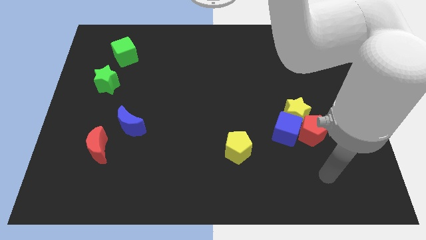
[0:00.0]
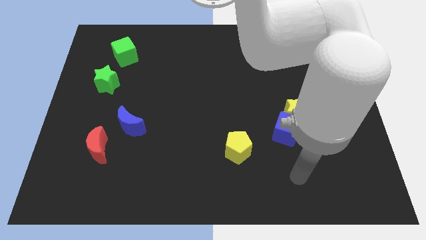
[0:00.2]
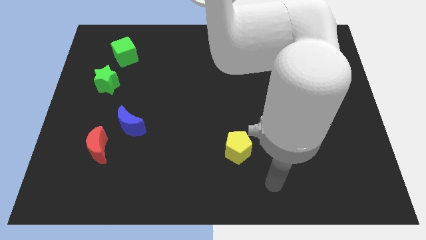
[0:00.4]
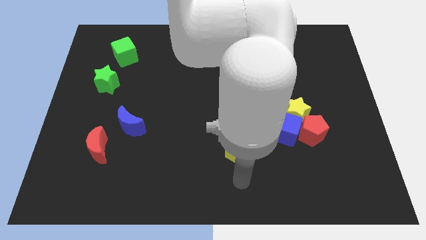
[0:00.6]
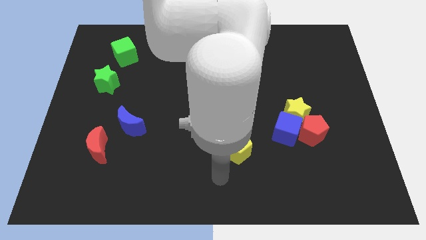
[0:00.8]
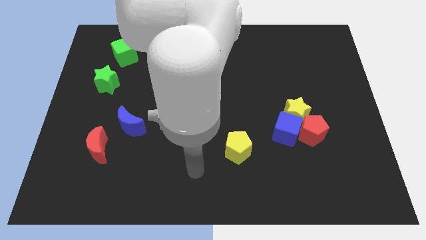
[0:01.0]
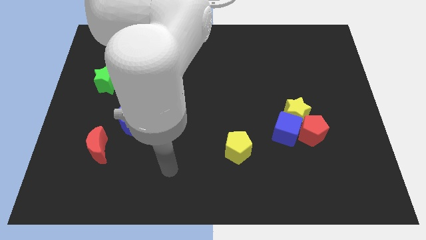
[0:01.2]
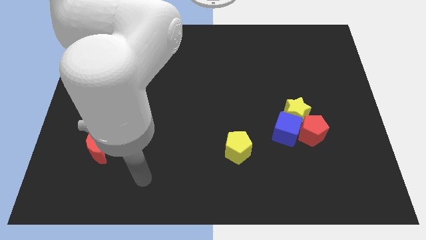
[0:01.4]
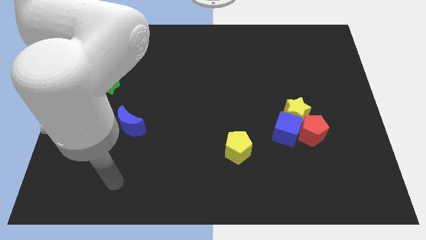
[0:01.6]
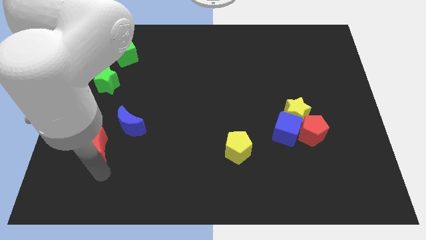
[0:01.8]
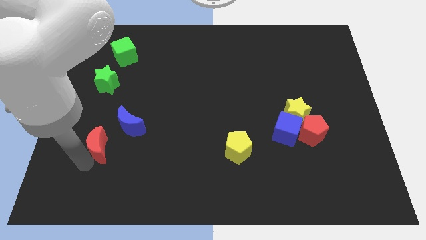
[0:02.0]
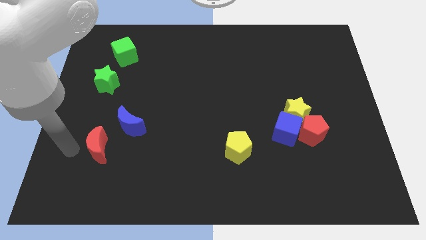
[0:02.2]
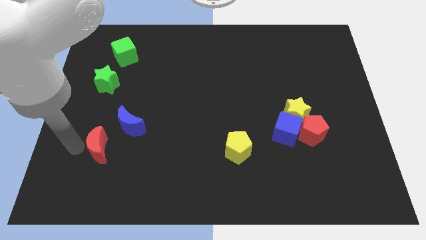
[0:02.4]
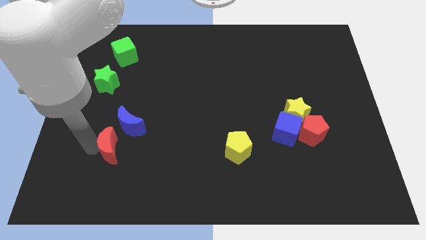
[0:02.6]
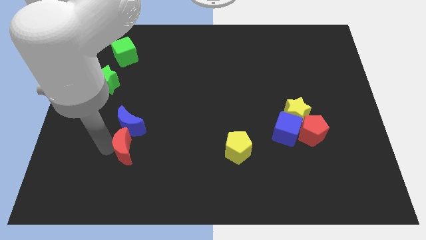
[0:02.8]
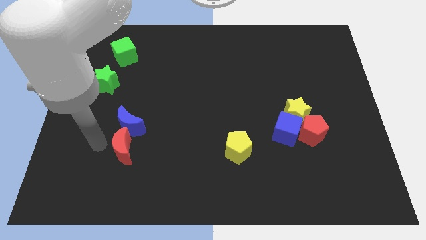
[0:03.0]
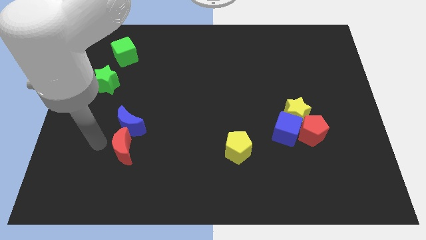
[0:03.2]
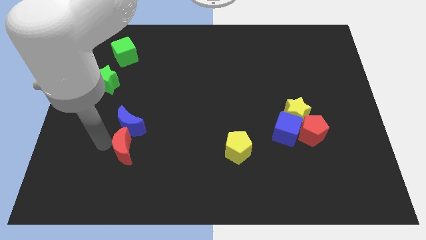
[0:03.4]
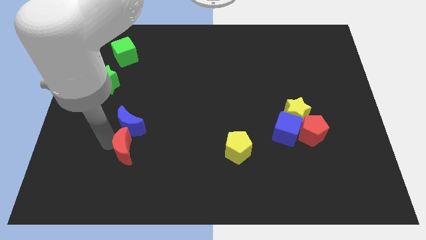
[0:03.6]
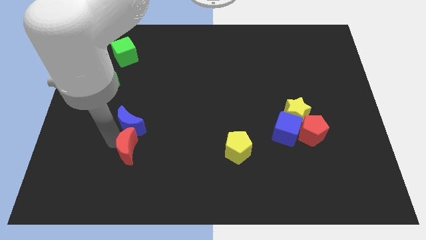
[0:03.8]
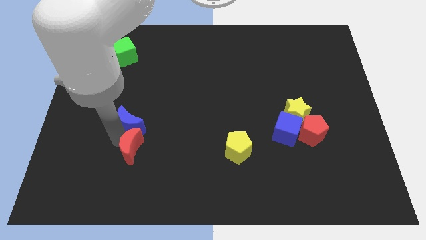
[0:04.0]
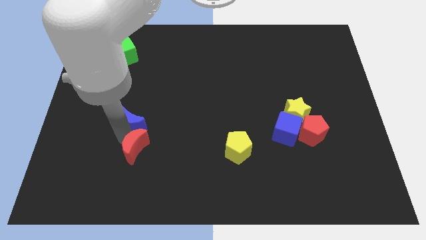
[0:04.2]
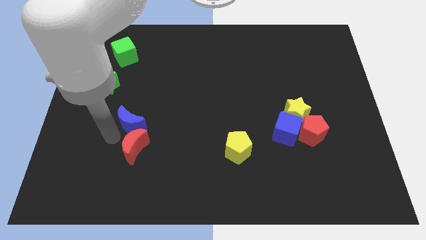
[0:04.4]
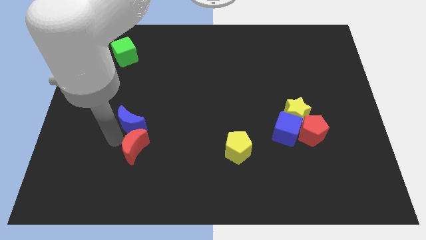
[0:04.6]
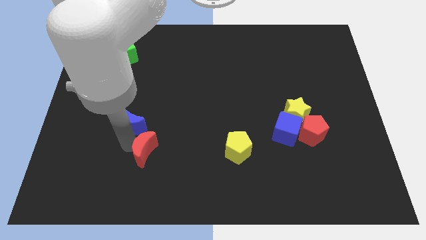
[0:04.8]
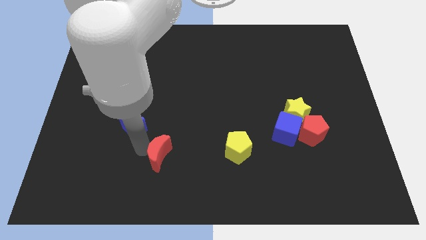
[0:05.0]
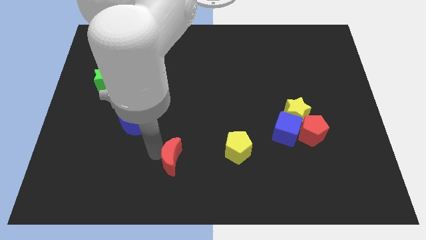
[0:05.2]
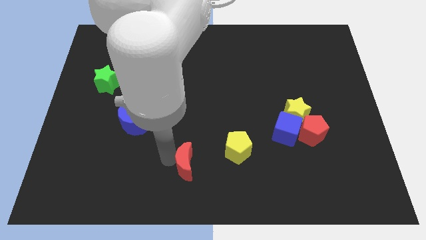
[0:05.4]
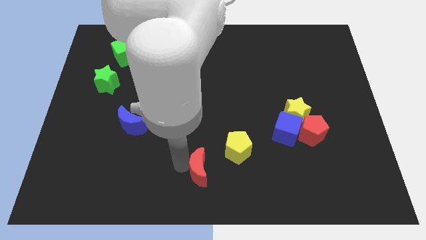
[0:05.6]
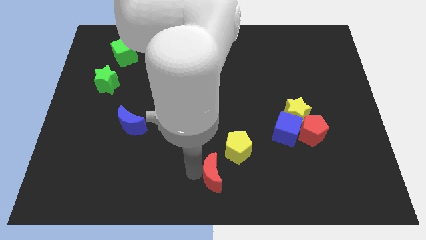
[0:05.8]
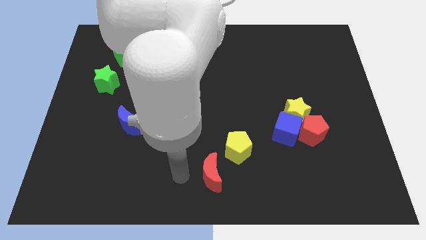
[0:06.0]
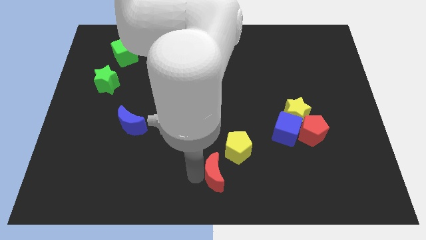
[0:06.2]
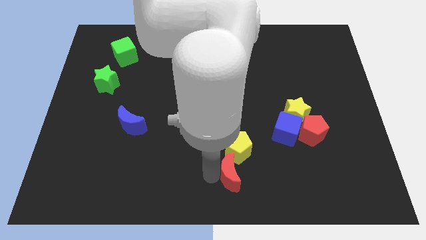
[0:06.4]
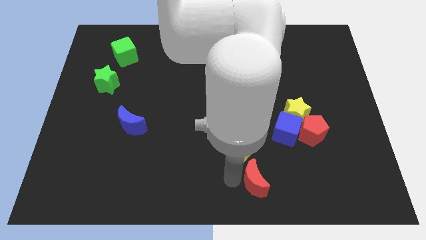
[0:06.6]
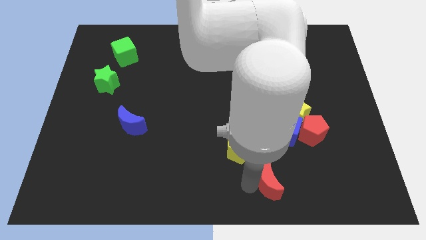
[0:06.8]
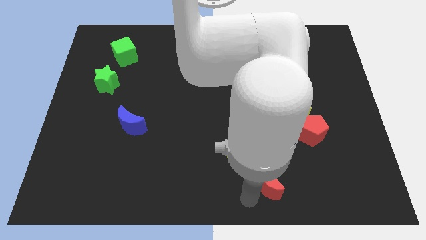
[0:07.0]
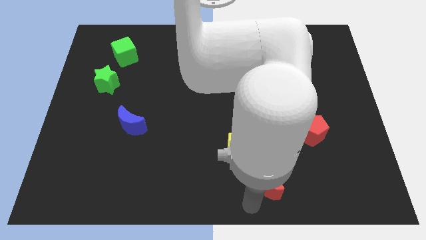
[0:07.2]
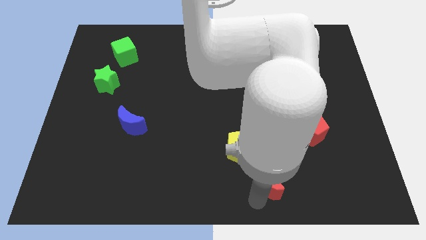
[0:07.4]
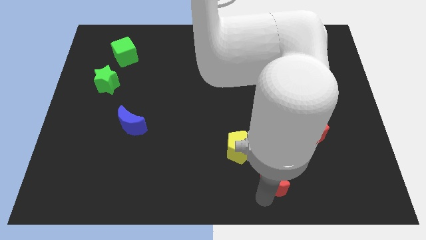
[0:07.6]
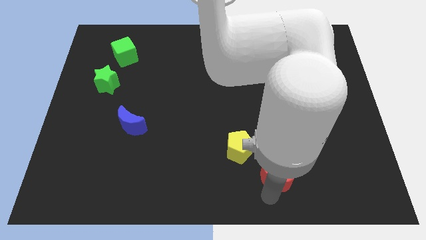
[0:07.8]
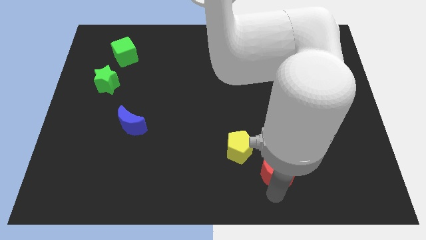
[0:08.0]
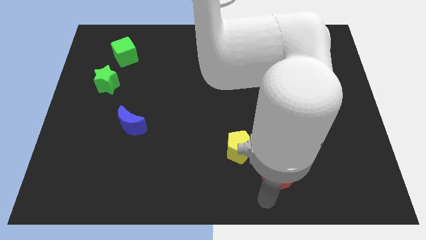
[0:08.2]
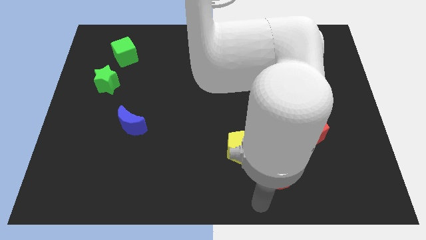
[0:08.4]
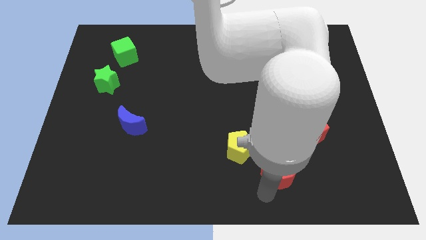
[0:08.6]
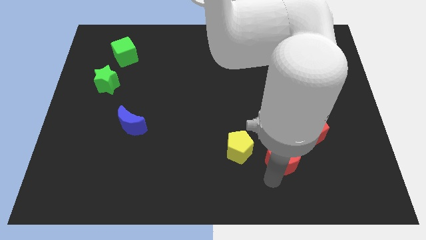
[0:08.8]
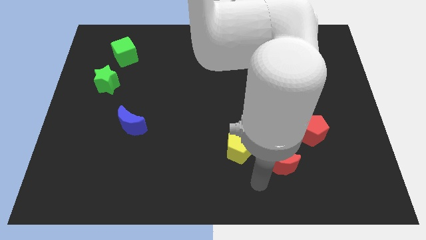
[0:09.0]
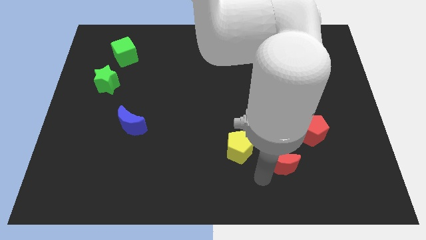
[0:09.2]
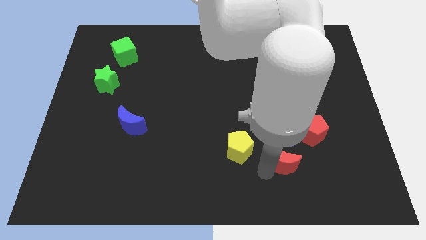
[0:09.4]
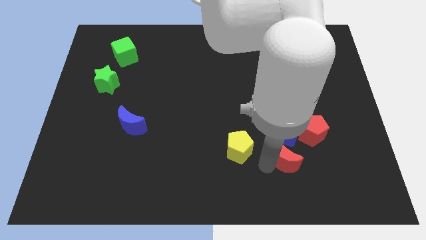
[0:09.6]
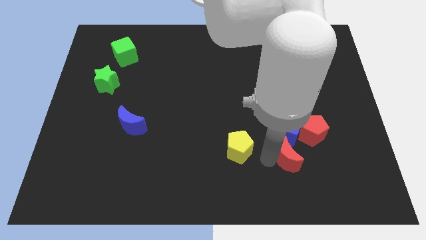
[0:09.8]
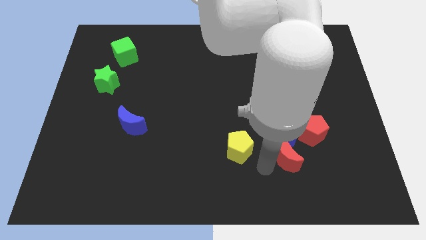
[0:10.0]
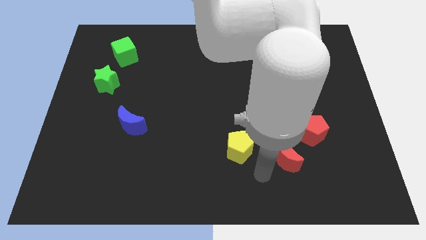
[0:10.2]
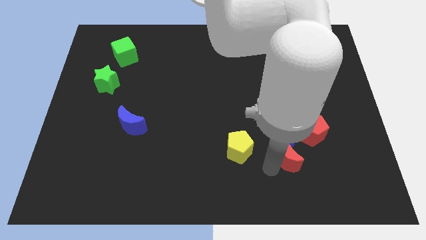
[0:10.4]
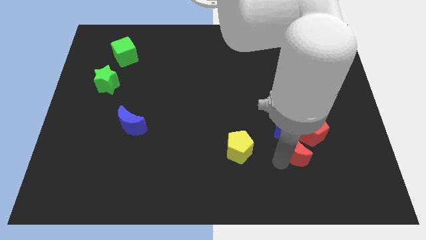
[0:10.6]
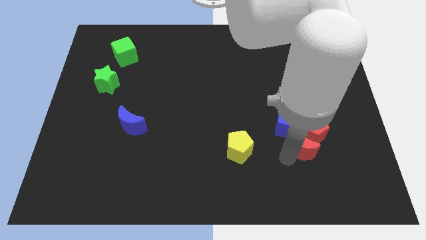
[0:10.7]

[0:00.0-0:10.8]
push the red moon to the red pentagon

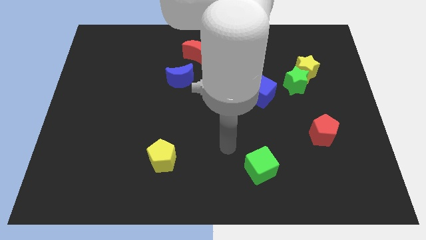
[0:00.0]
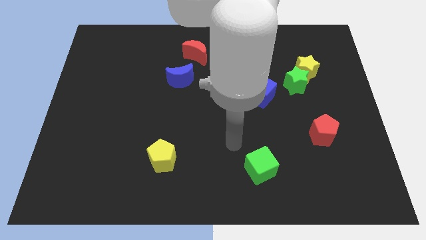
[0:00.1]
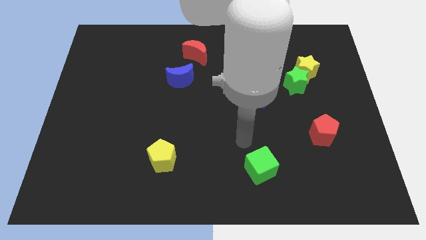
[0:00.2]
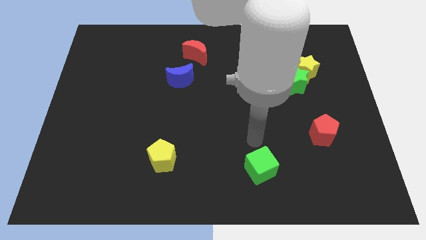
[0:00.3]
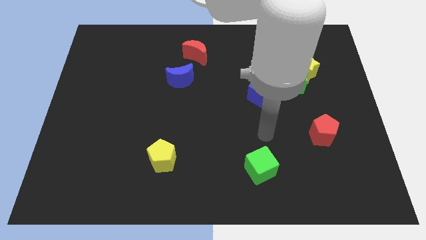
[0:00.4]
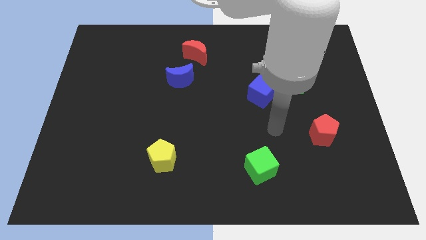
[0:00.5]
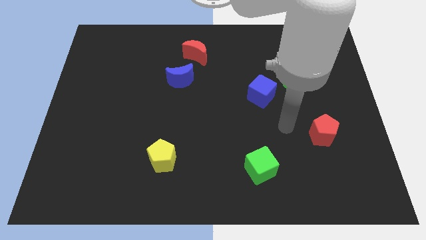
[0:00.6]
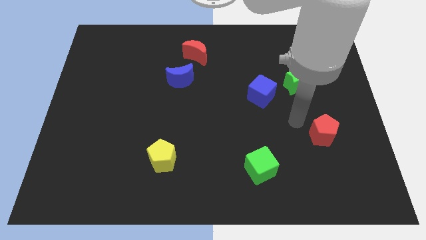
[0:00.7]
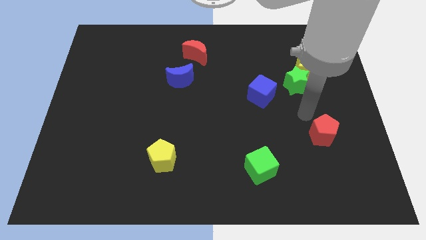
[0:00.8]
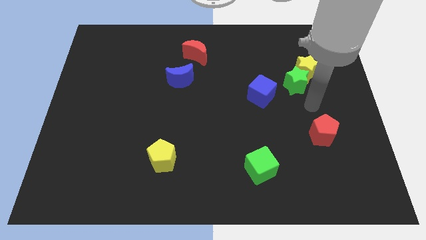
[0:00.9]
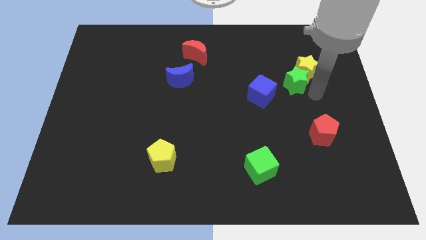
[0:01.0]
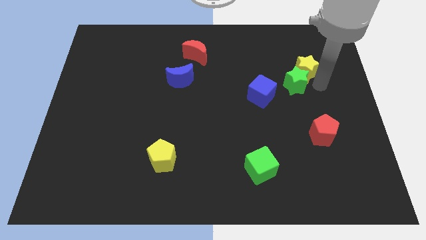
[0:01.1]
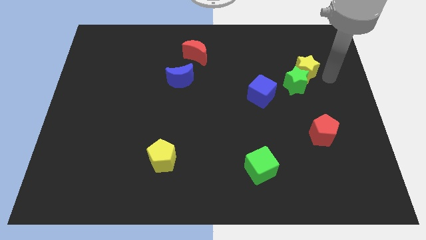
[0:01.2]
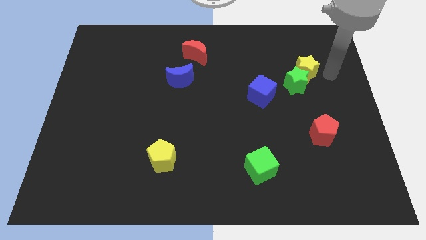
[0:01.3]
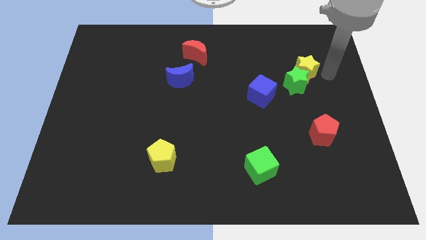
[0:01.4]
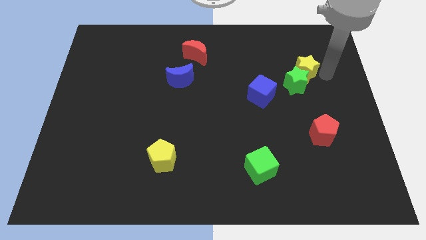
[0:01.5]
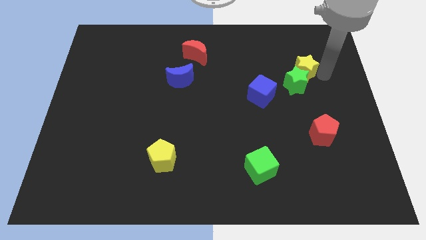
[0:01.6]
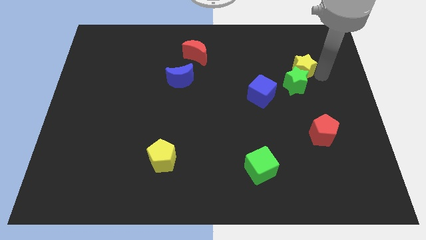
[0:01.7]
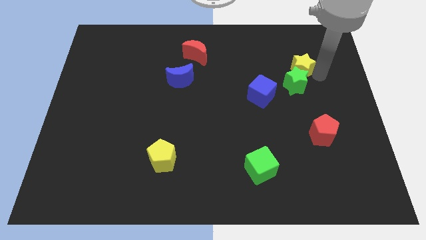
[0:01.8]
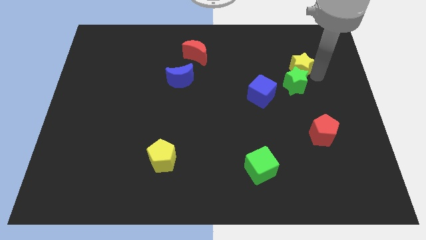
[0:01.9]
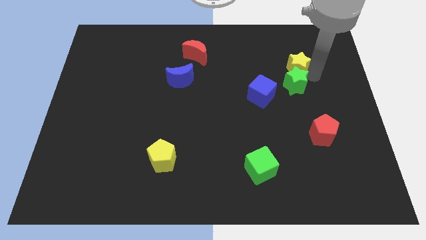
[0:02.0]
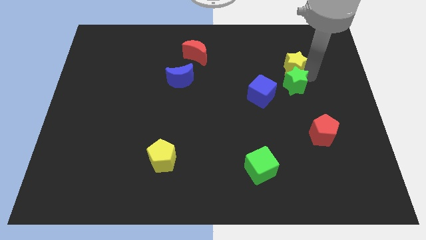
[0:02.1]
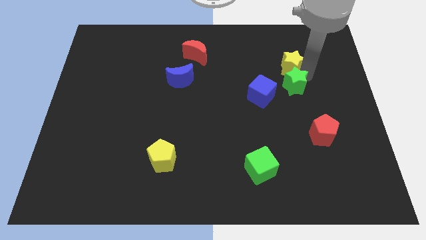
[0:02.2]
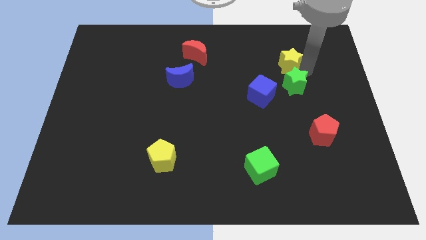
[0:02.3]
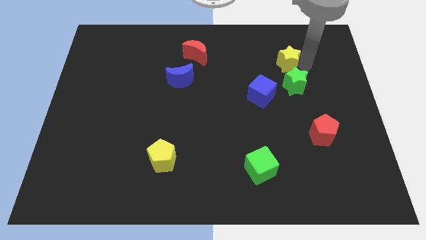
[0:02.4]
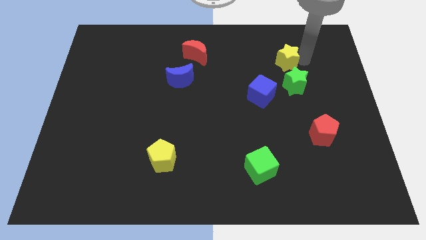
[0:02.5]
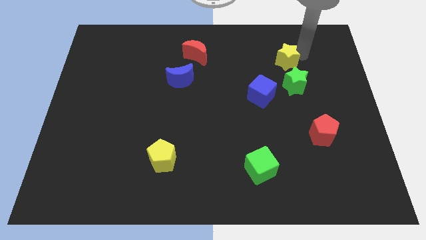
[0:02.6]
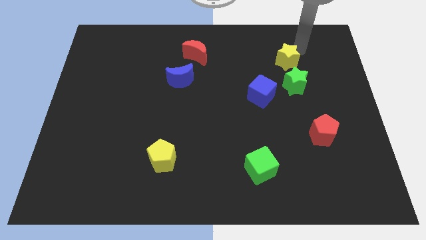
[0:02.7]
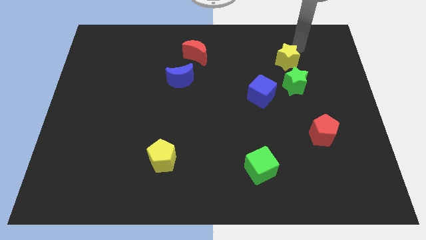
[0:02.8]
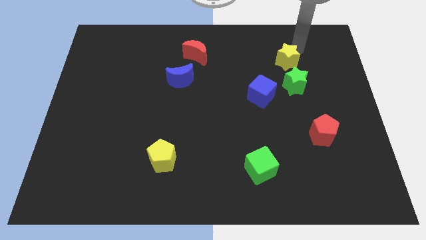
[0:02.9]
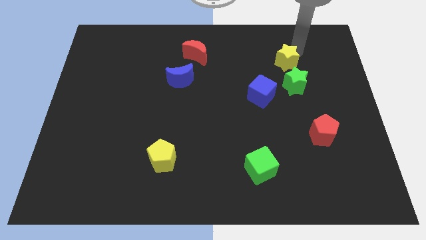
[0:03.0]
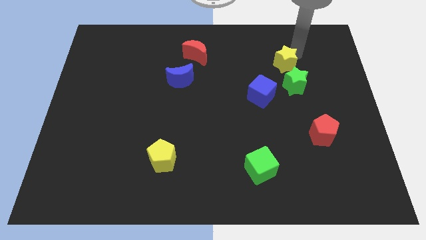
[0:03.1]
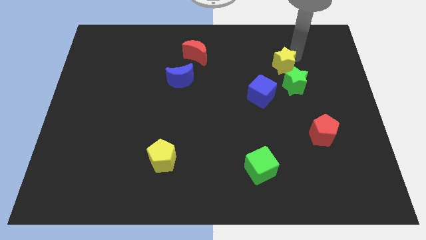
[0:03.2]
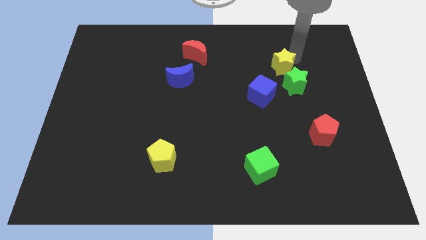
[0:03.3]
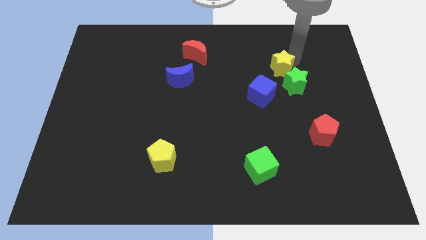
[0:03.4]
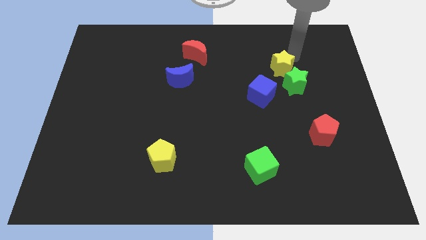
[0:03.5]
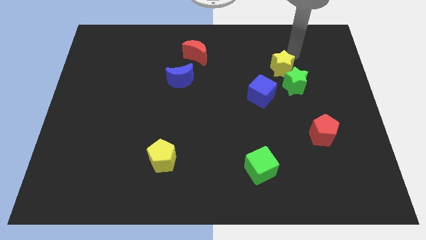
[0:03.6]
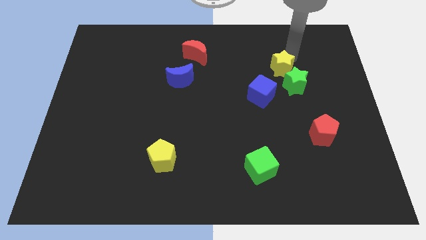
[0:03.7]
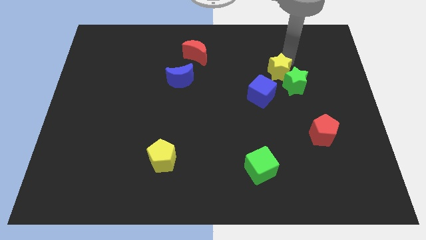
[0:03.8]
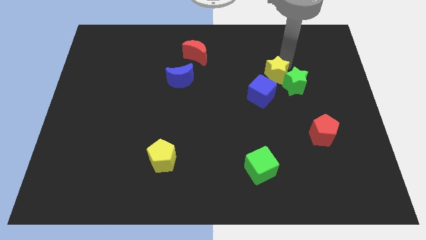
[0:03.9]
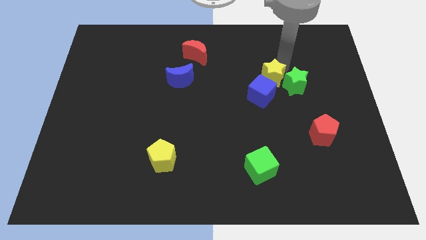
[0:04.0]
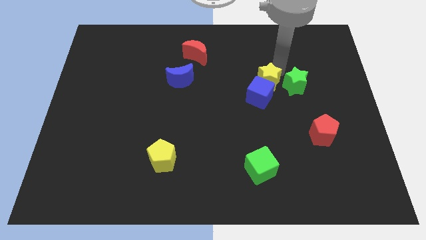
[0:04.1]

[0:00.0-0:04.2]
slide the yellow star towards the blue cube
